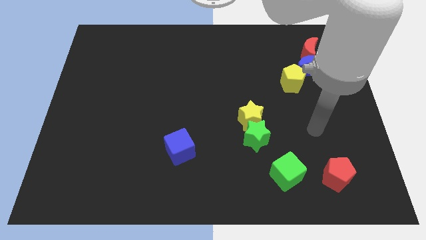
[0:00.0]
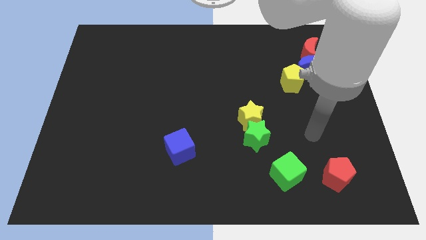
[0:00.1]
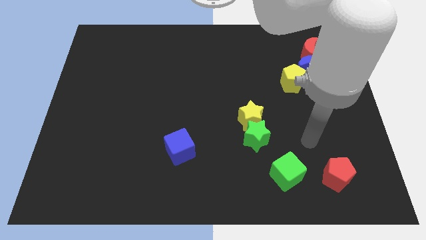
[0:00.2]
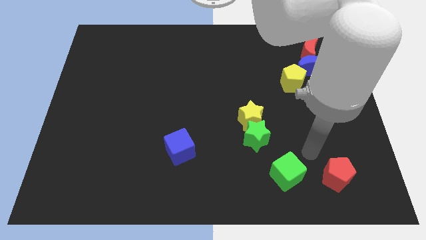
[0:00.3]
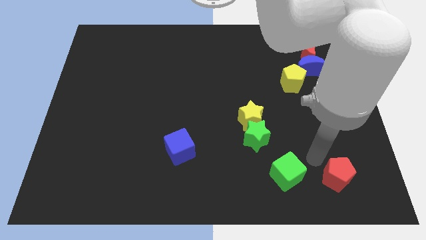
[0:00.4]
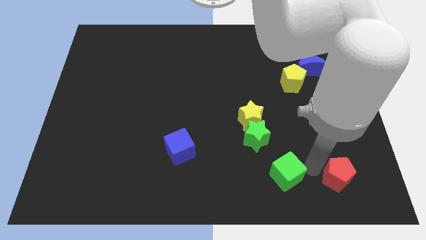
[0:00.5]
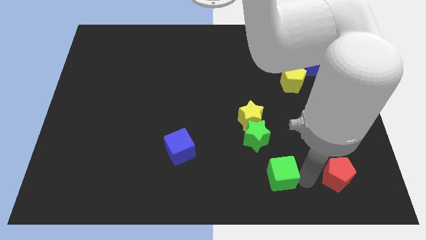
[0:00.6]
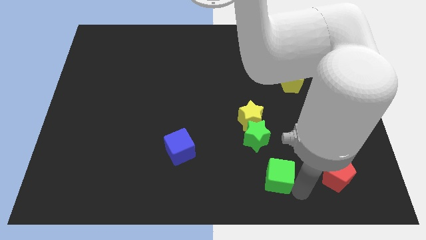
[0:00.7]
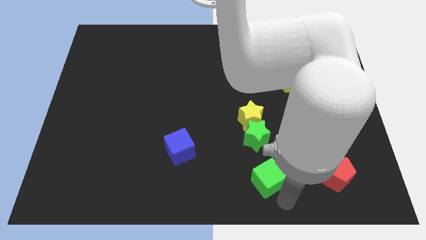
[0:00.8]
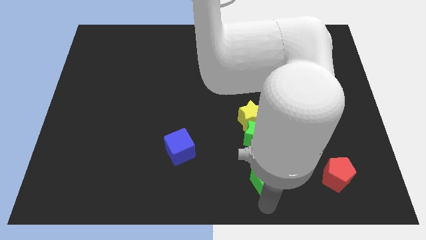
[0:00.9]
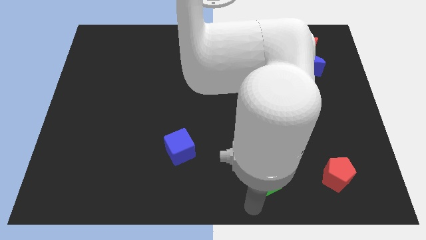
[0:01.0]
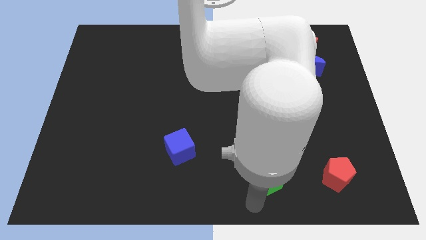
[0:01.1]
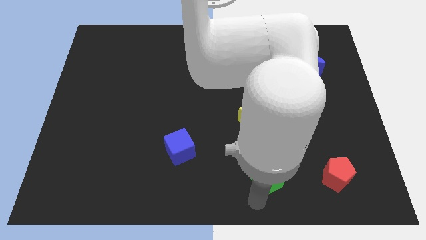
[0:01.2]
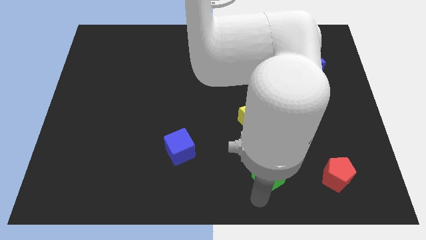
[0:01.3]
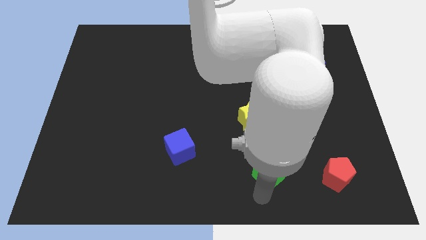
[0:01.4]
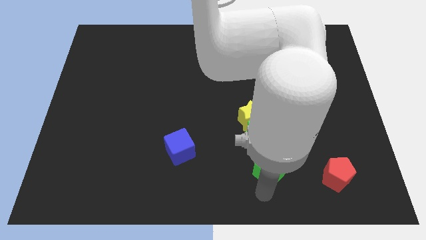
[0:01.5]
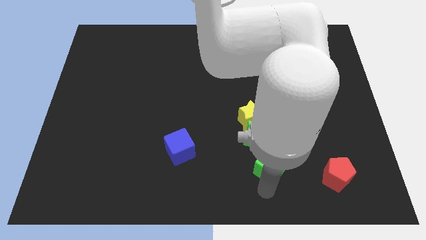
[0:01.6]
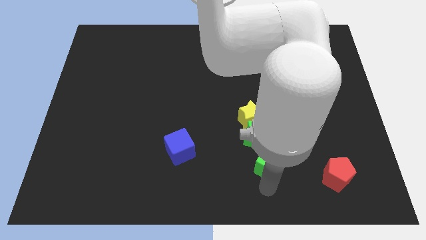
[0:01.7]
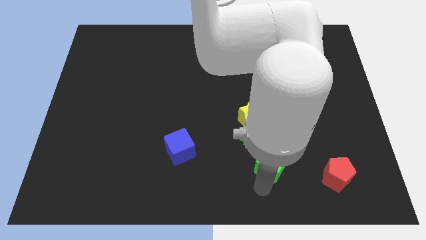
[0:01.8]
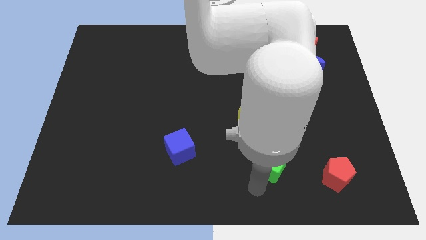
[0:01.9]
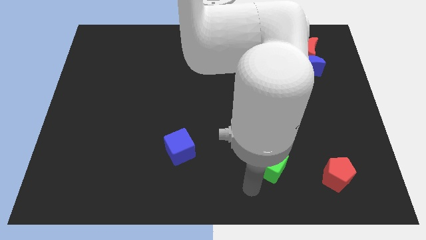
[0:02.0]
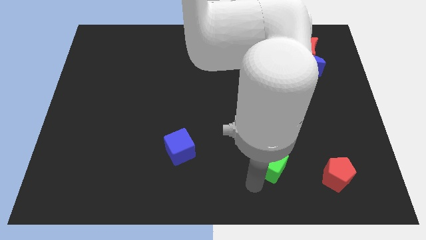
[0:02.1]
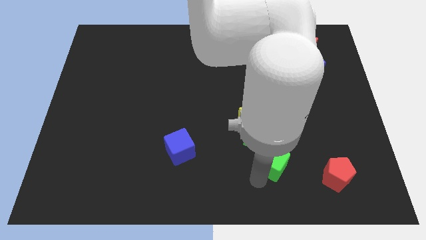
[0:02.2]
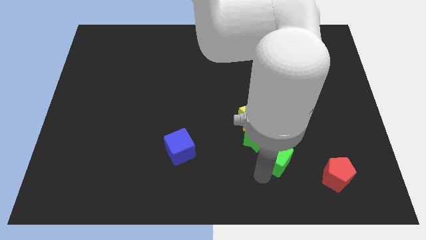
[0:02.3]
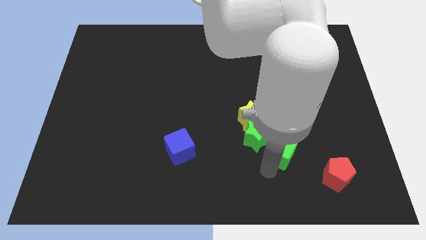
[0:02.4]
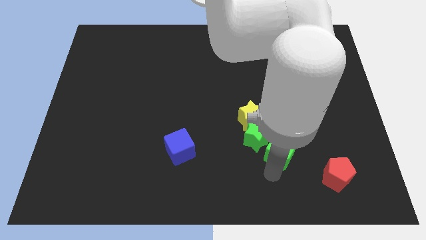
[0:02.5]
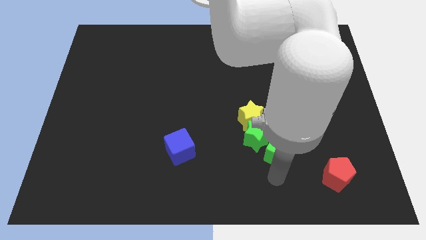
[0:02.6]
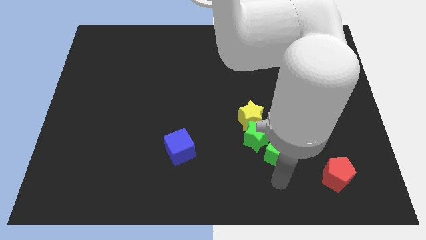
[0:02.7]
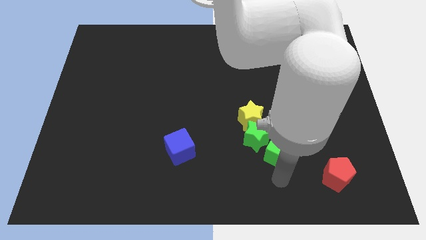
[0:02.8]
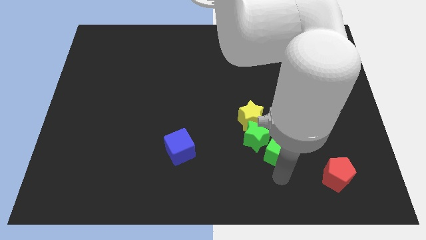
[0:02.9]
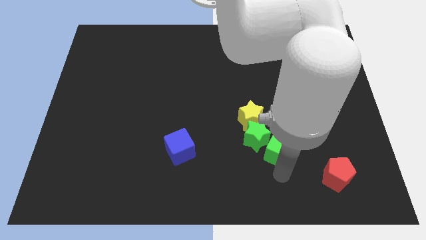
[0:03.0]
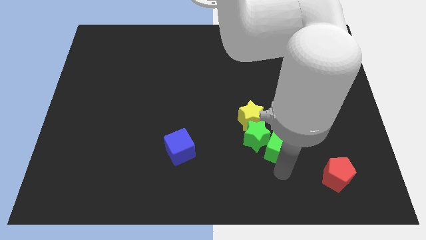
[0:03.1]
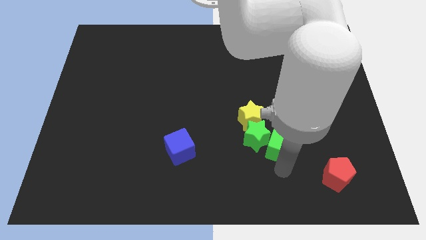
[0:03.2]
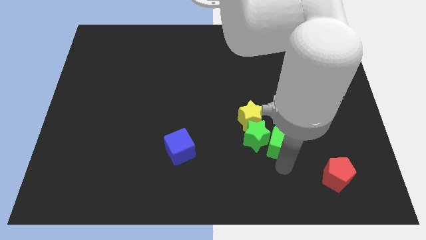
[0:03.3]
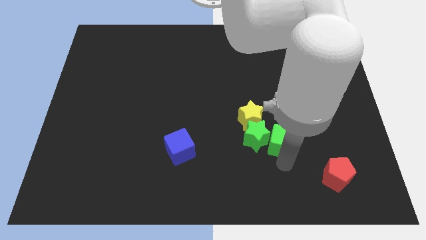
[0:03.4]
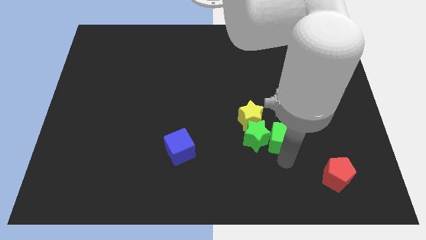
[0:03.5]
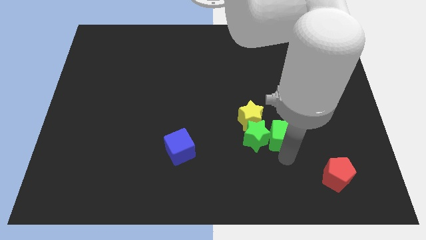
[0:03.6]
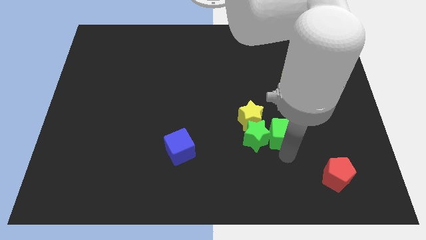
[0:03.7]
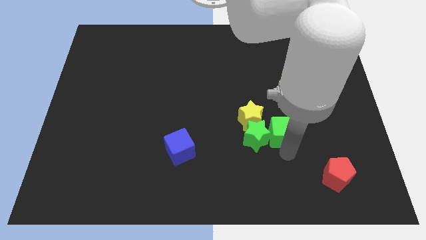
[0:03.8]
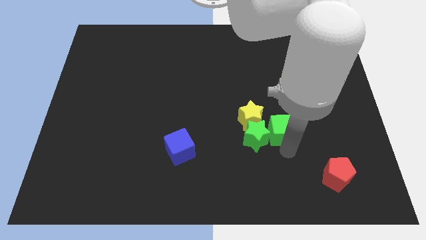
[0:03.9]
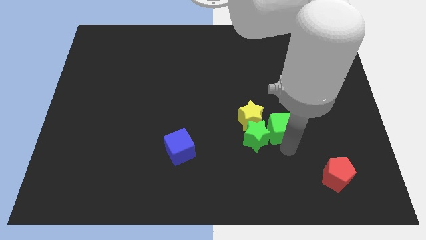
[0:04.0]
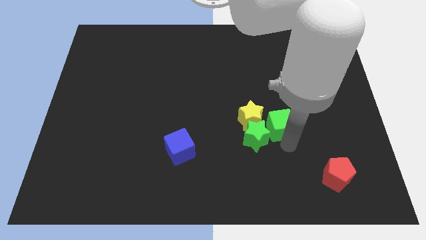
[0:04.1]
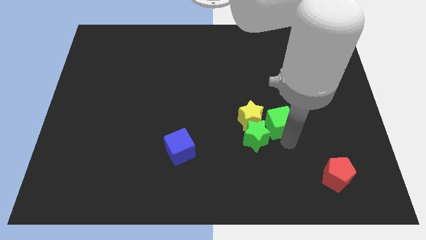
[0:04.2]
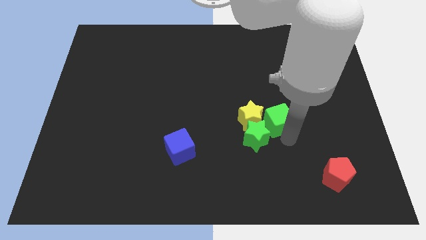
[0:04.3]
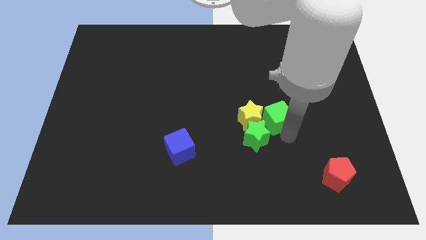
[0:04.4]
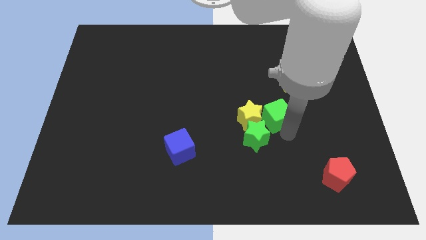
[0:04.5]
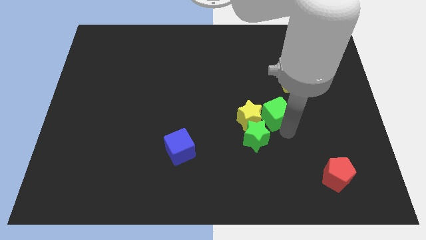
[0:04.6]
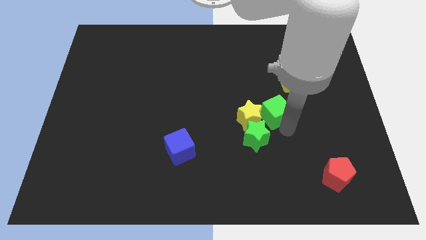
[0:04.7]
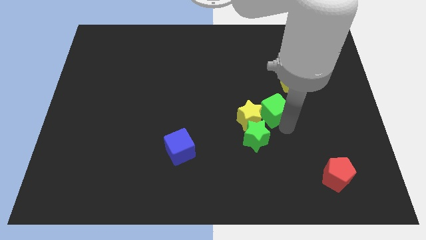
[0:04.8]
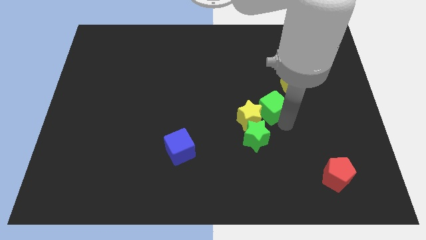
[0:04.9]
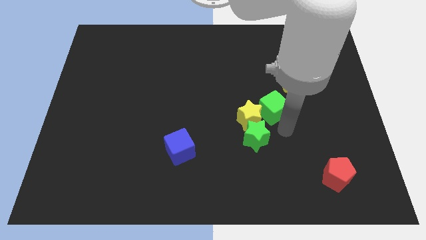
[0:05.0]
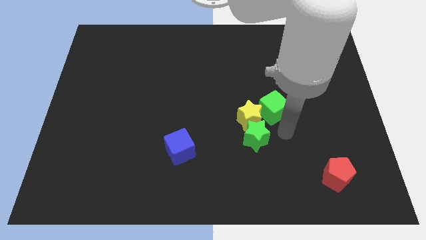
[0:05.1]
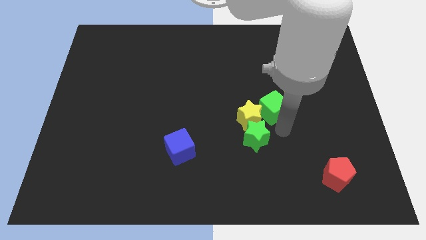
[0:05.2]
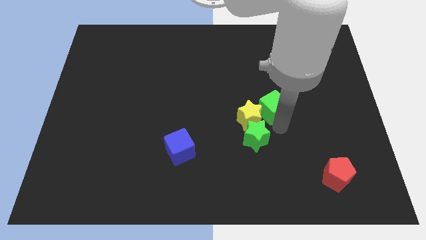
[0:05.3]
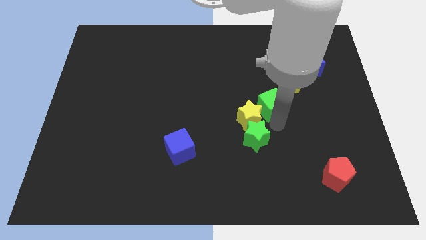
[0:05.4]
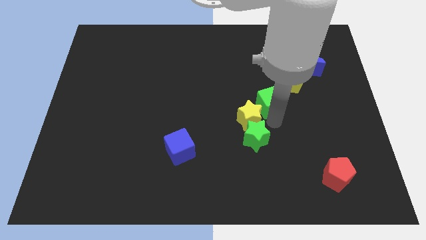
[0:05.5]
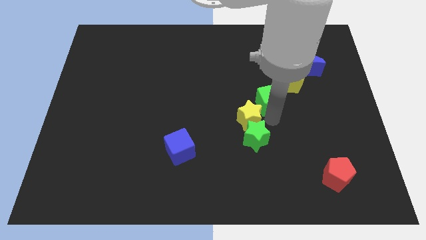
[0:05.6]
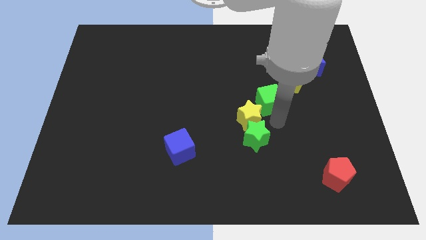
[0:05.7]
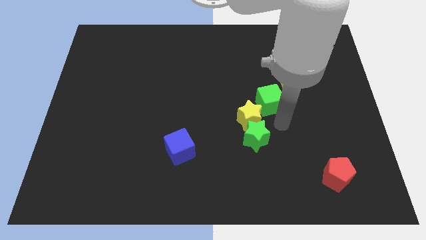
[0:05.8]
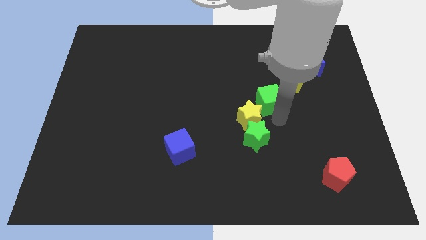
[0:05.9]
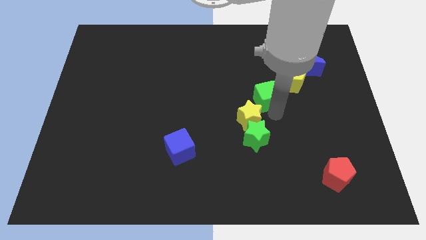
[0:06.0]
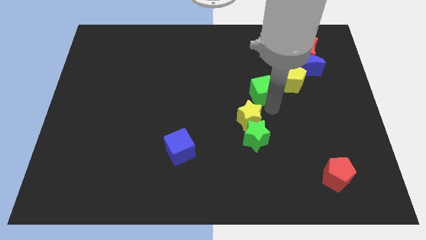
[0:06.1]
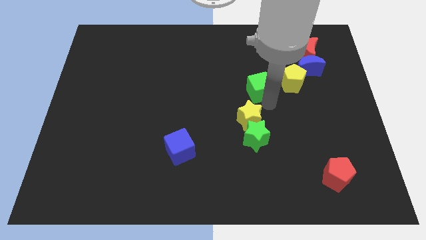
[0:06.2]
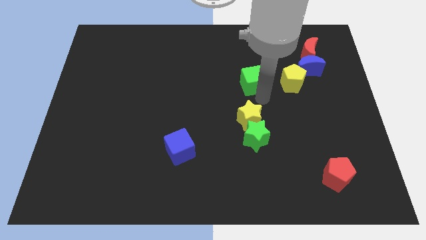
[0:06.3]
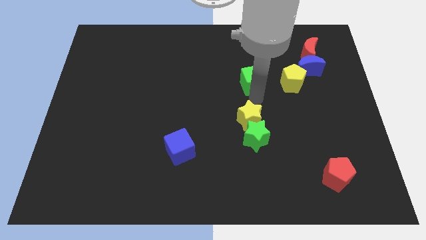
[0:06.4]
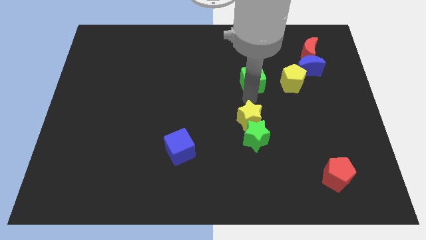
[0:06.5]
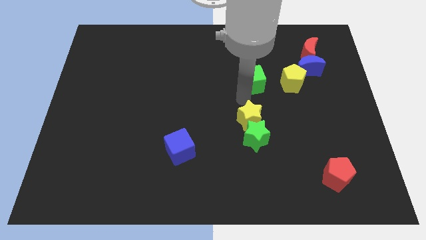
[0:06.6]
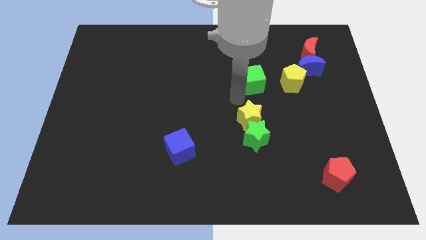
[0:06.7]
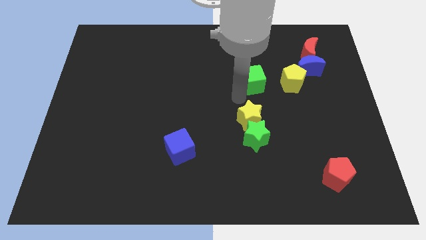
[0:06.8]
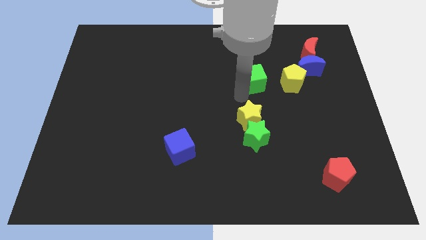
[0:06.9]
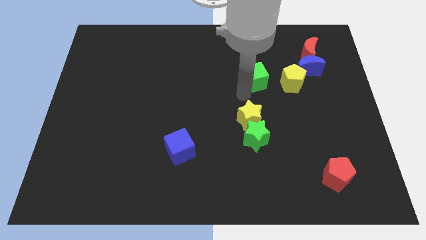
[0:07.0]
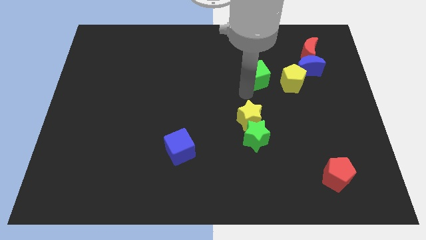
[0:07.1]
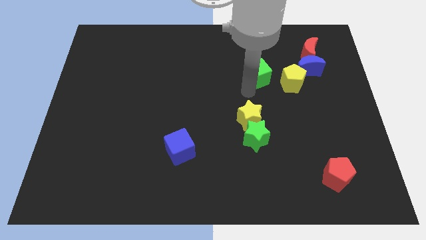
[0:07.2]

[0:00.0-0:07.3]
move the green cube diagonally up and to the left of the yellow pentagon
